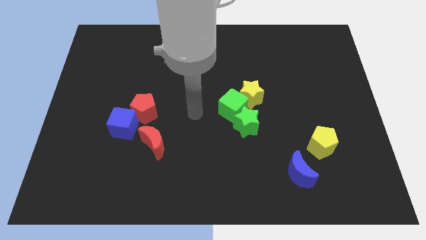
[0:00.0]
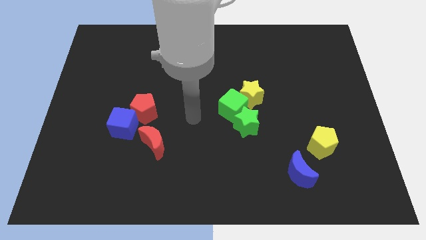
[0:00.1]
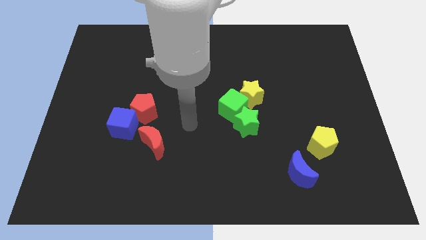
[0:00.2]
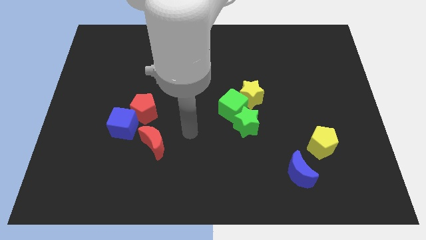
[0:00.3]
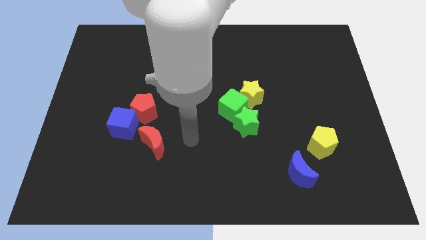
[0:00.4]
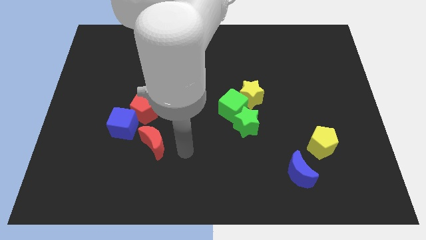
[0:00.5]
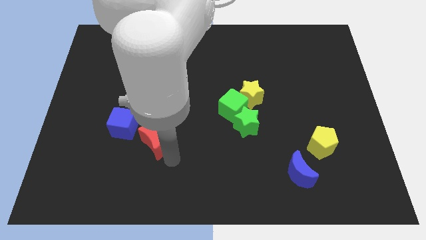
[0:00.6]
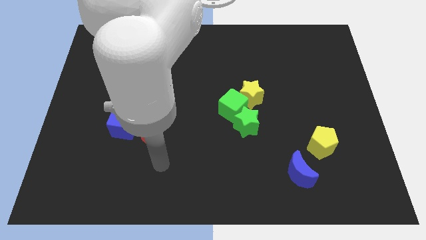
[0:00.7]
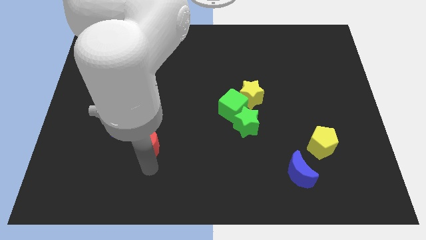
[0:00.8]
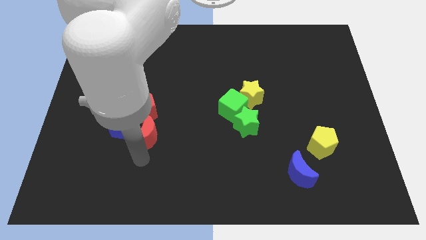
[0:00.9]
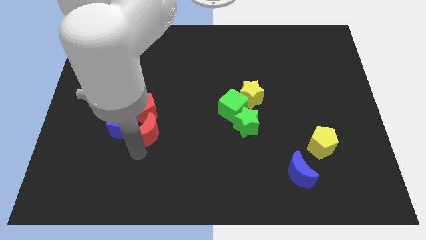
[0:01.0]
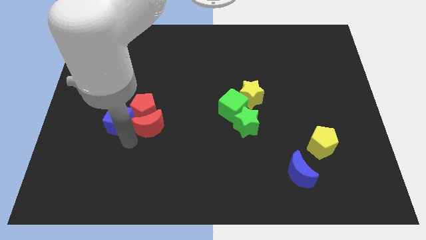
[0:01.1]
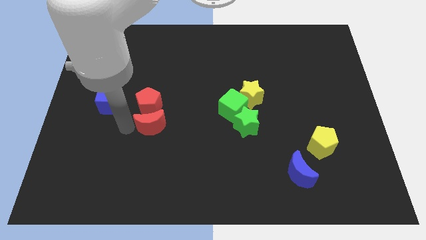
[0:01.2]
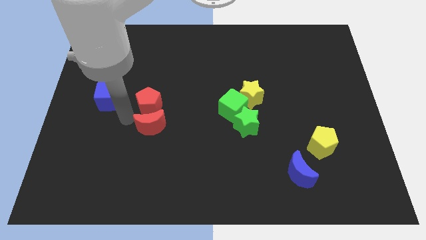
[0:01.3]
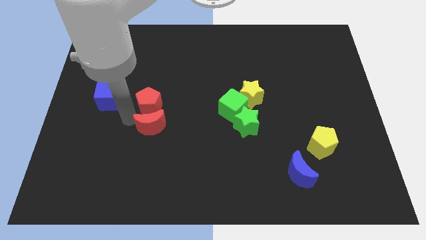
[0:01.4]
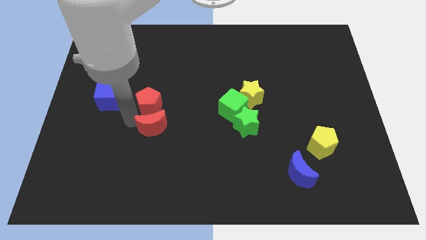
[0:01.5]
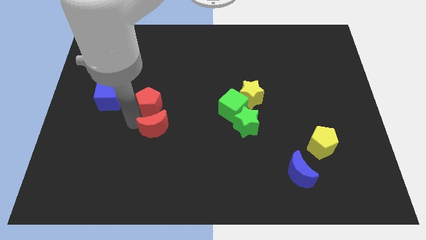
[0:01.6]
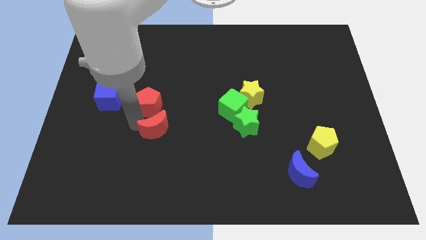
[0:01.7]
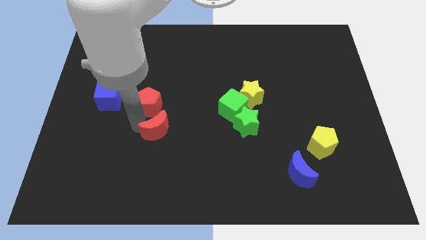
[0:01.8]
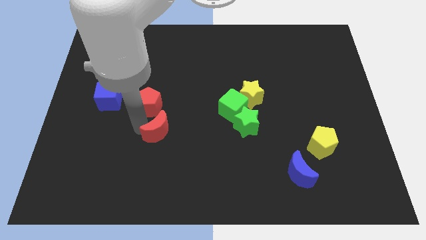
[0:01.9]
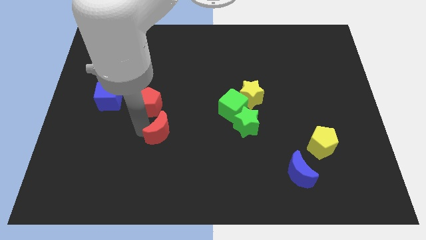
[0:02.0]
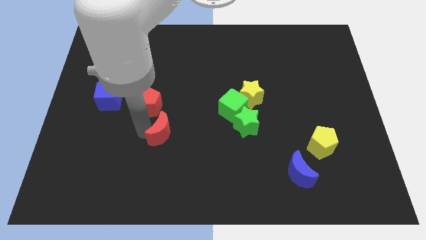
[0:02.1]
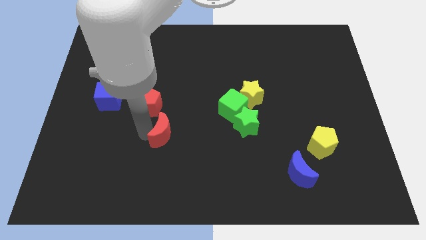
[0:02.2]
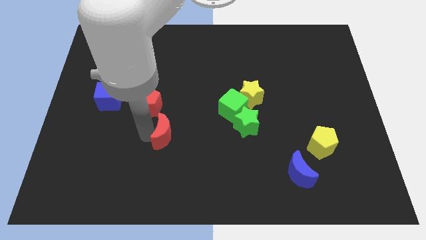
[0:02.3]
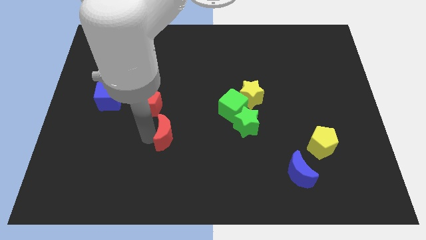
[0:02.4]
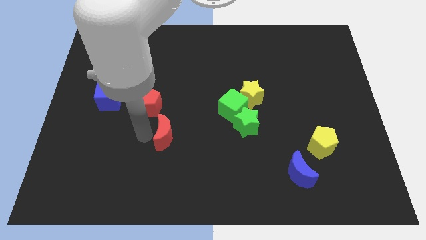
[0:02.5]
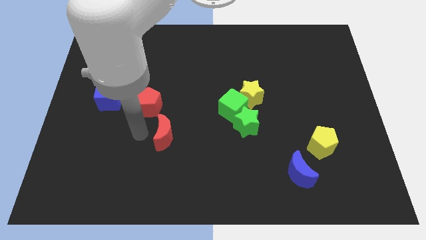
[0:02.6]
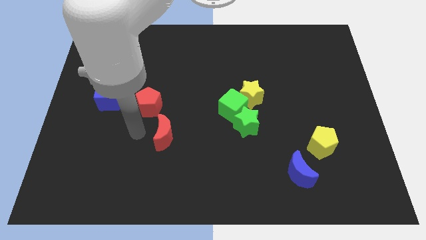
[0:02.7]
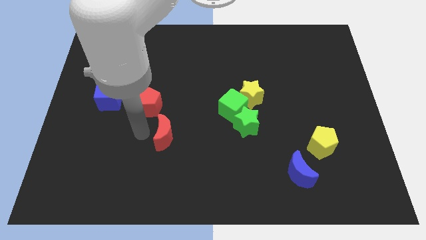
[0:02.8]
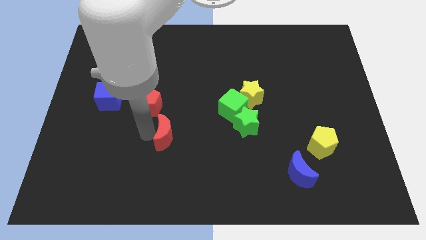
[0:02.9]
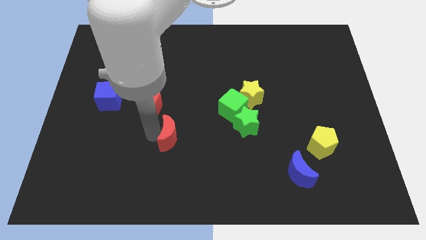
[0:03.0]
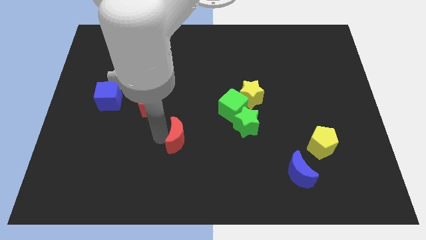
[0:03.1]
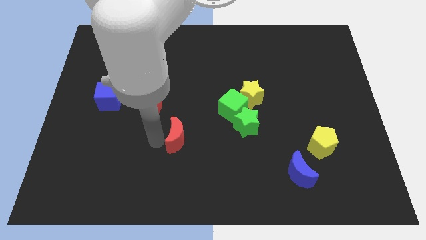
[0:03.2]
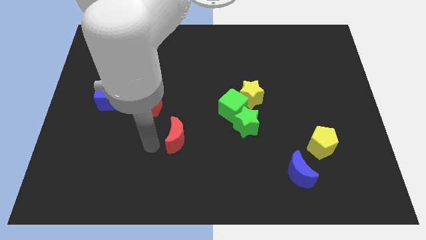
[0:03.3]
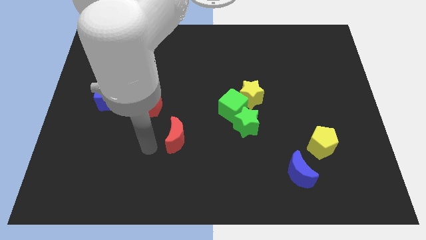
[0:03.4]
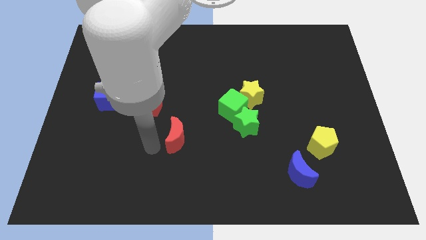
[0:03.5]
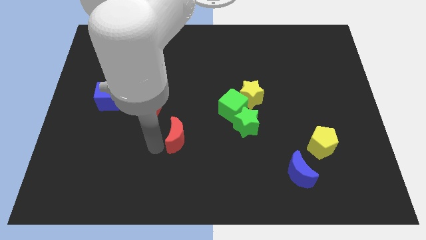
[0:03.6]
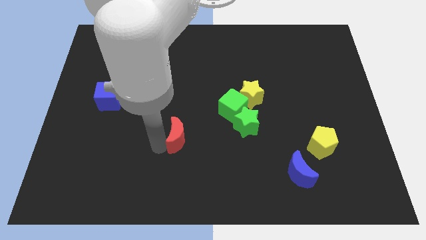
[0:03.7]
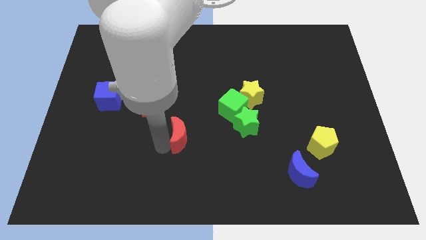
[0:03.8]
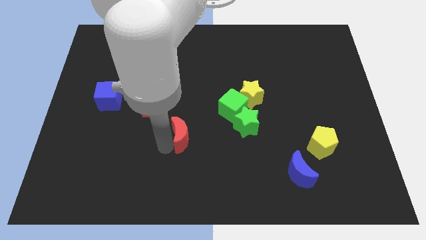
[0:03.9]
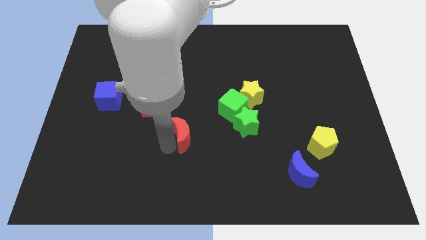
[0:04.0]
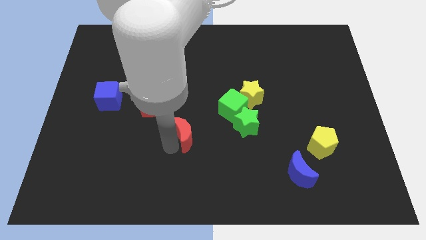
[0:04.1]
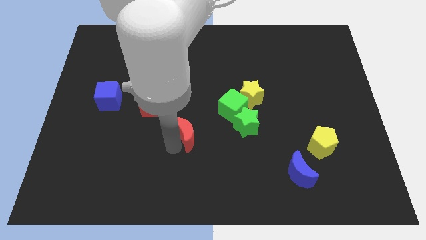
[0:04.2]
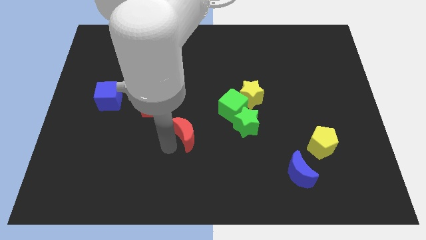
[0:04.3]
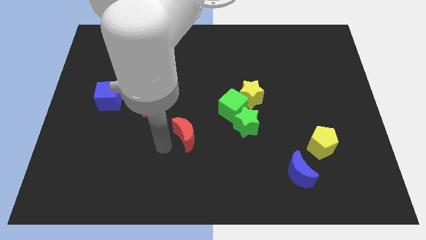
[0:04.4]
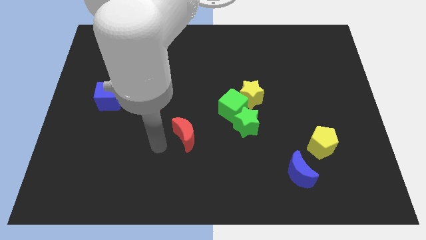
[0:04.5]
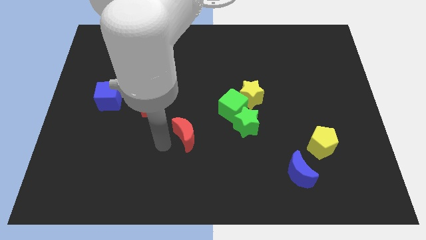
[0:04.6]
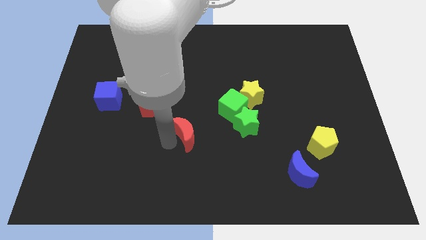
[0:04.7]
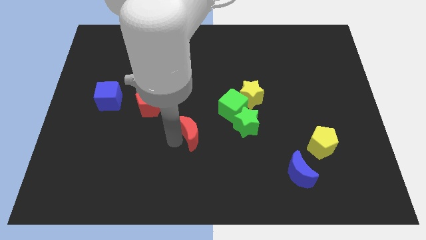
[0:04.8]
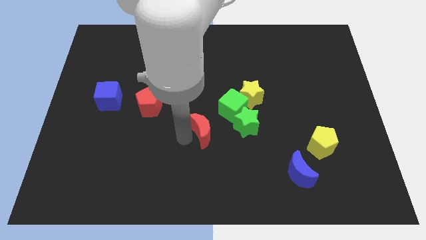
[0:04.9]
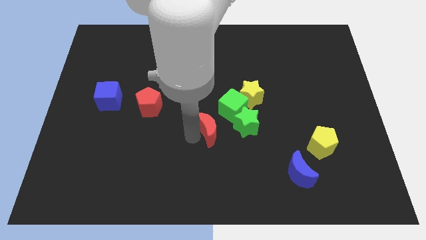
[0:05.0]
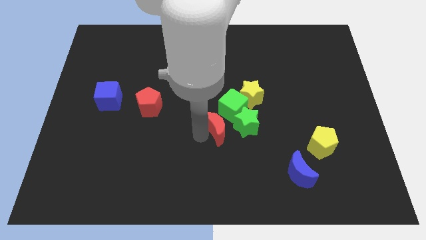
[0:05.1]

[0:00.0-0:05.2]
move the red moon diagonally down and to the left of the yellow star

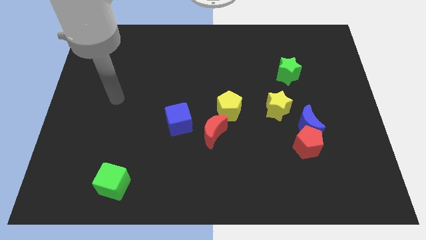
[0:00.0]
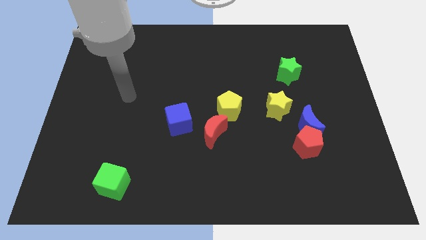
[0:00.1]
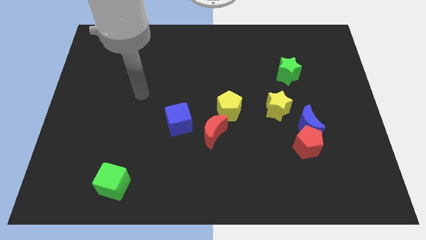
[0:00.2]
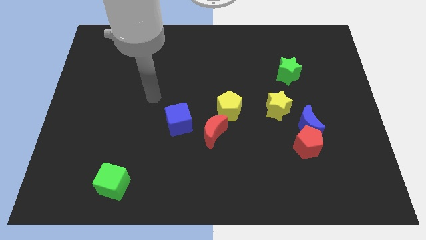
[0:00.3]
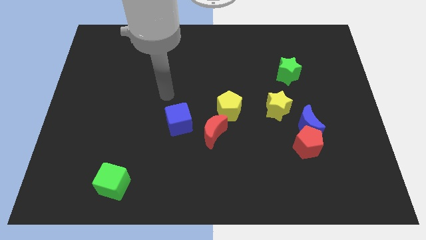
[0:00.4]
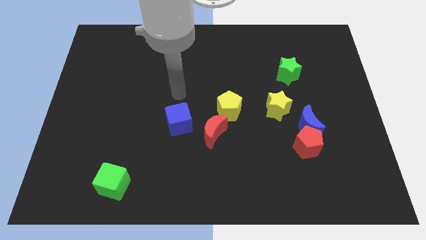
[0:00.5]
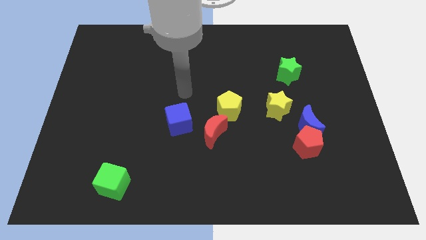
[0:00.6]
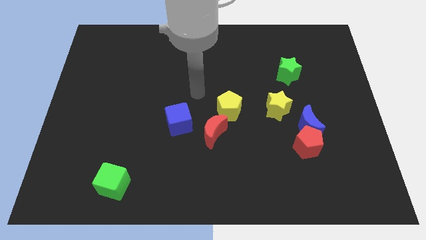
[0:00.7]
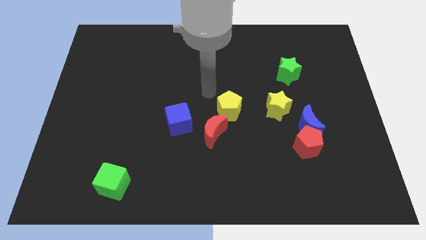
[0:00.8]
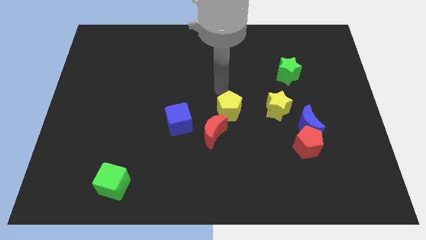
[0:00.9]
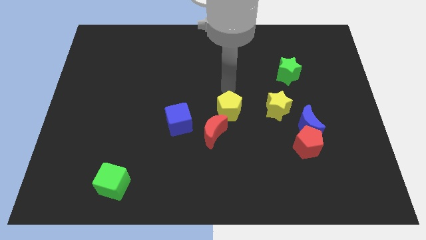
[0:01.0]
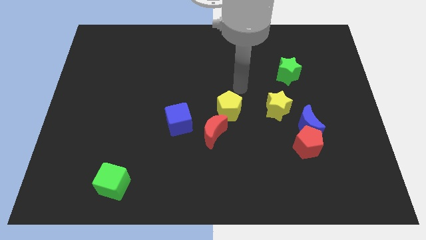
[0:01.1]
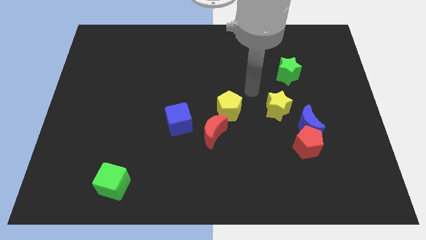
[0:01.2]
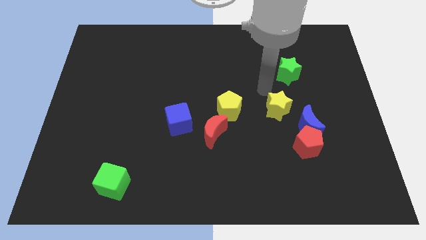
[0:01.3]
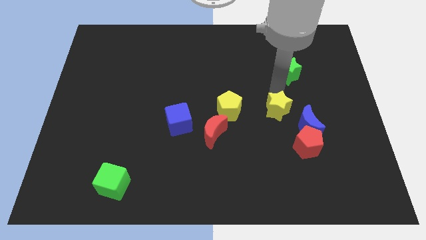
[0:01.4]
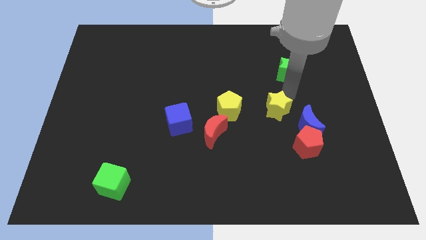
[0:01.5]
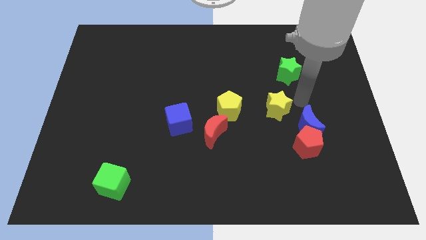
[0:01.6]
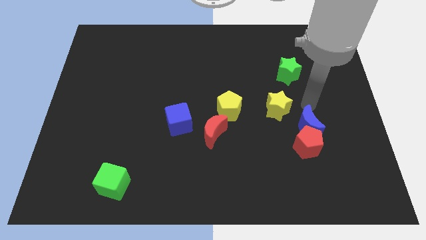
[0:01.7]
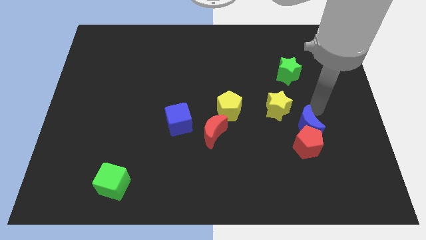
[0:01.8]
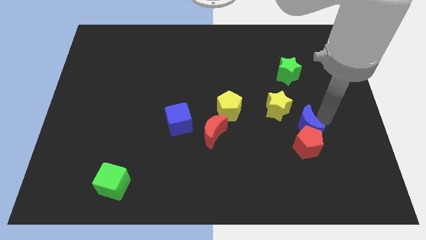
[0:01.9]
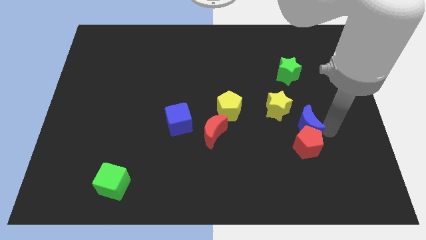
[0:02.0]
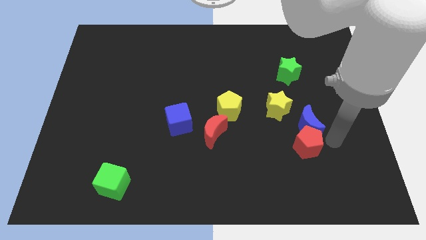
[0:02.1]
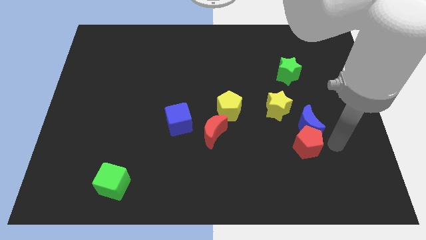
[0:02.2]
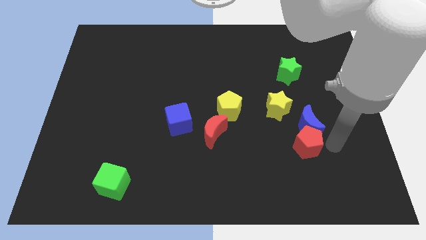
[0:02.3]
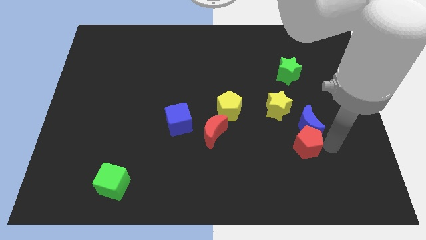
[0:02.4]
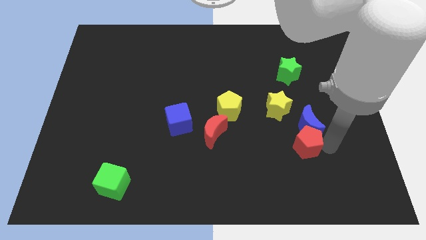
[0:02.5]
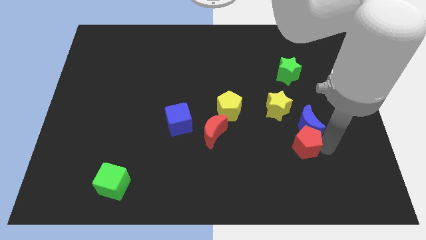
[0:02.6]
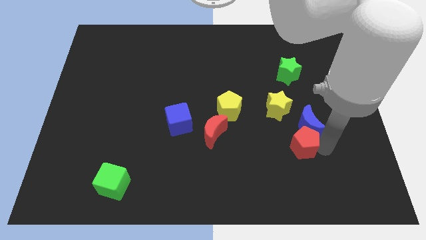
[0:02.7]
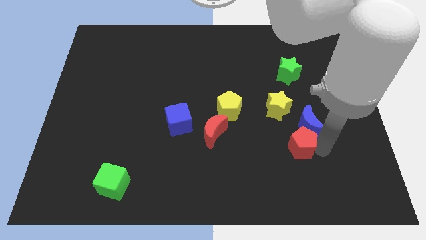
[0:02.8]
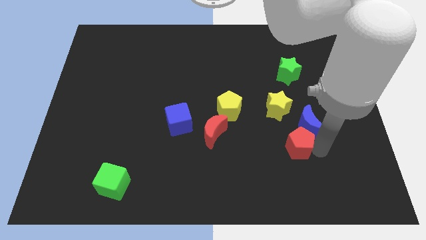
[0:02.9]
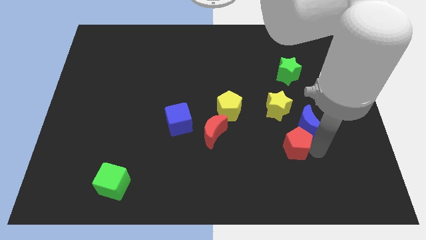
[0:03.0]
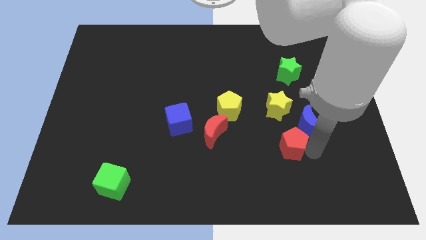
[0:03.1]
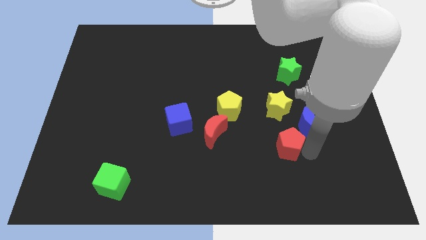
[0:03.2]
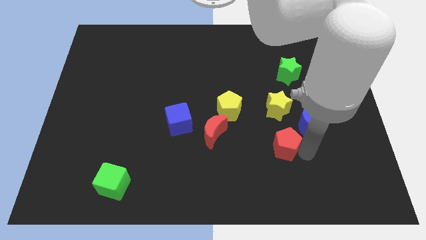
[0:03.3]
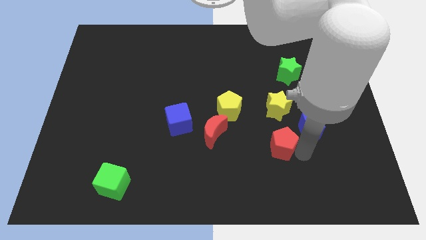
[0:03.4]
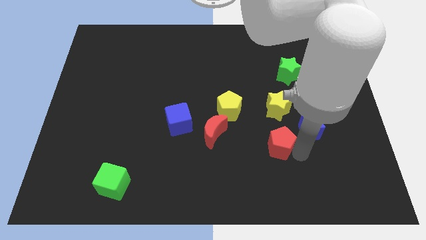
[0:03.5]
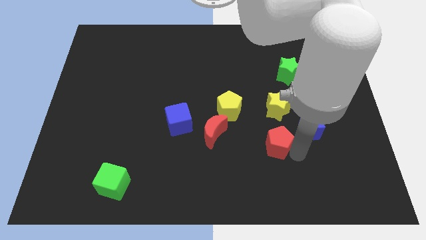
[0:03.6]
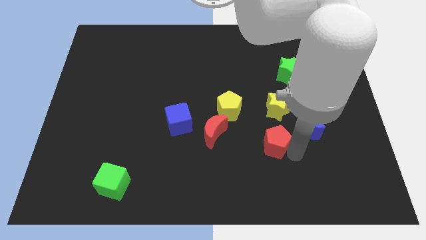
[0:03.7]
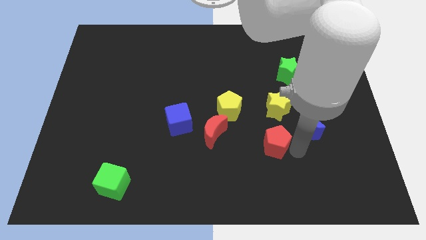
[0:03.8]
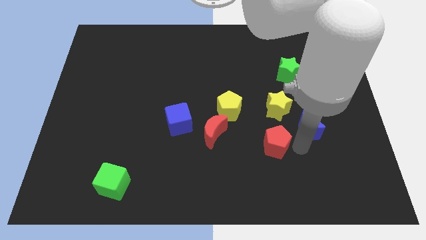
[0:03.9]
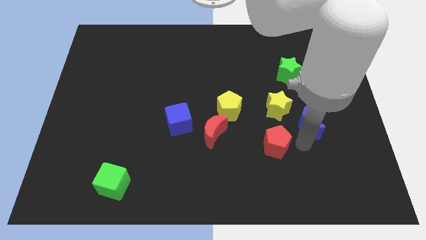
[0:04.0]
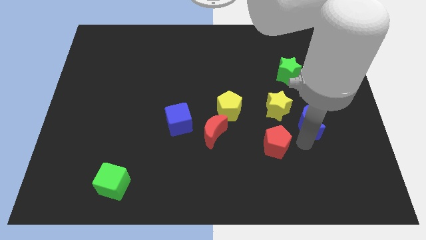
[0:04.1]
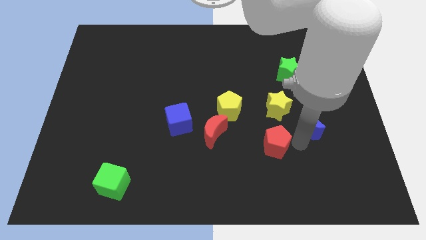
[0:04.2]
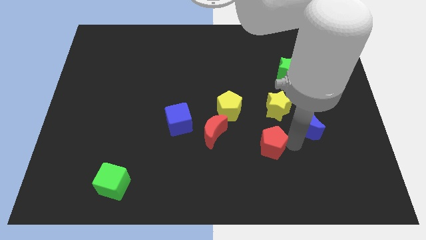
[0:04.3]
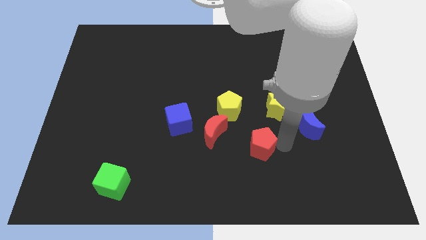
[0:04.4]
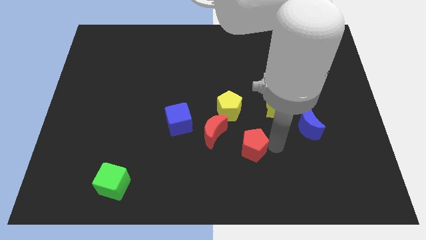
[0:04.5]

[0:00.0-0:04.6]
push the red pentagon to the bottom side of the yellow pentagon
